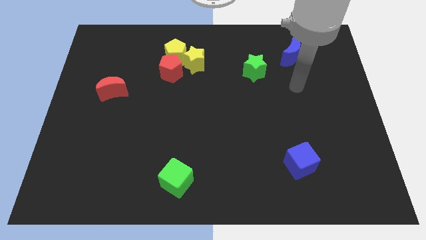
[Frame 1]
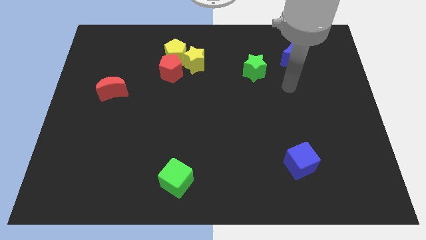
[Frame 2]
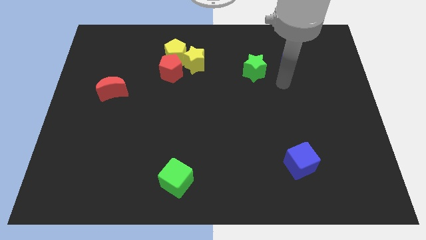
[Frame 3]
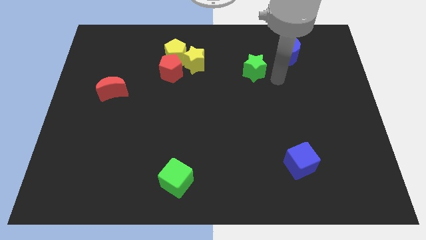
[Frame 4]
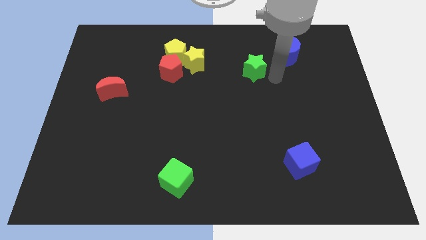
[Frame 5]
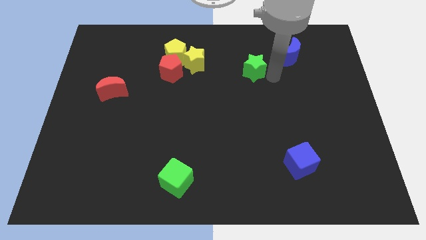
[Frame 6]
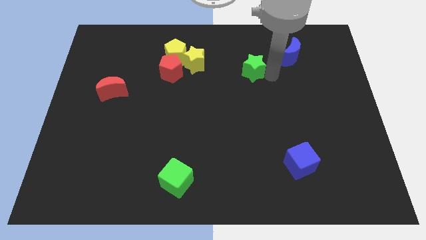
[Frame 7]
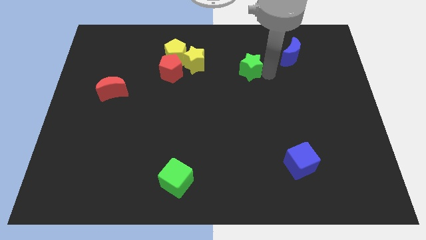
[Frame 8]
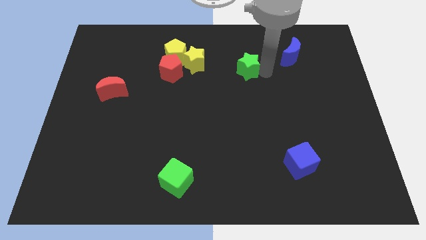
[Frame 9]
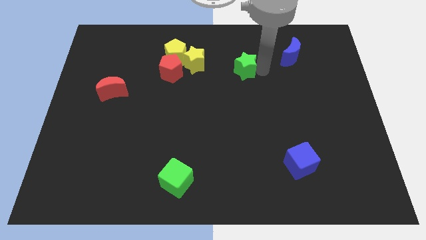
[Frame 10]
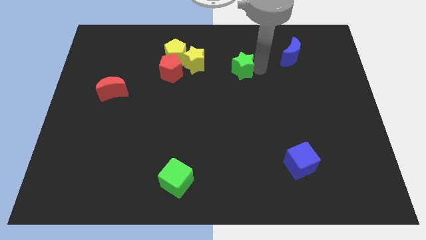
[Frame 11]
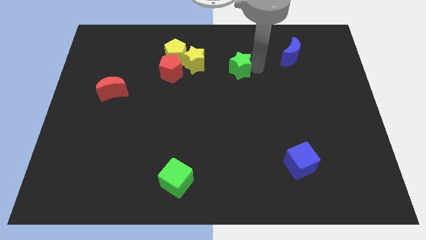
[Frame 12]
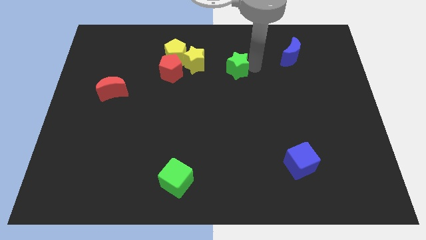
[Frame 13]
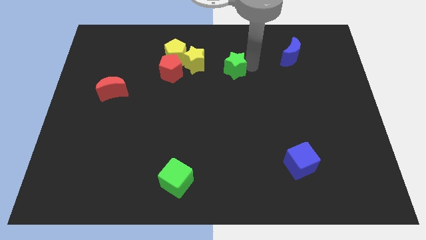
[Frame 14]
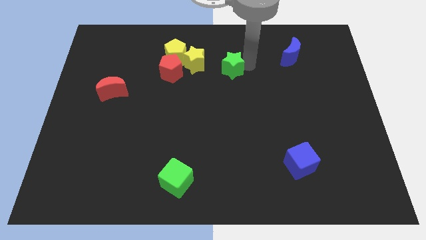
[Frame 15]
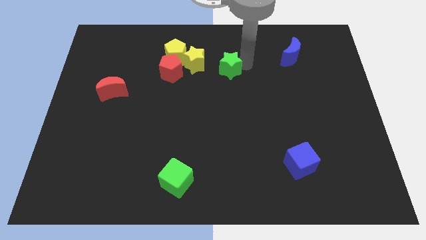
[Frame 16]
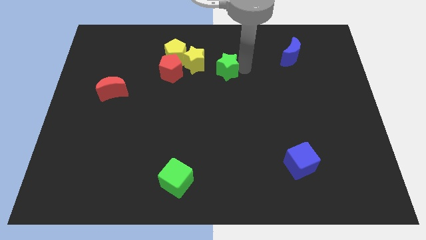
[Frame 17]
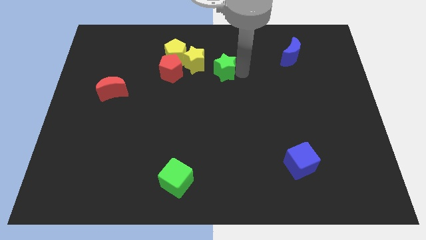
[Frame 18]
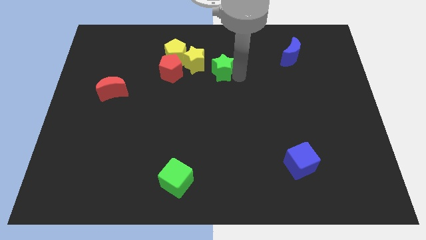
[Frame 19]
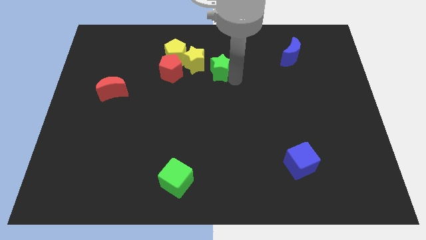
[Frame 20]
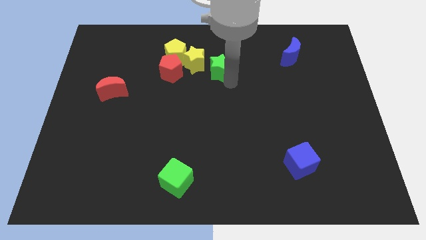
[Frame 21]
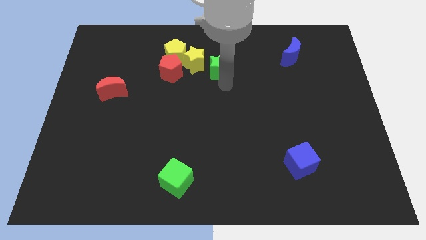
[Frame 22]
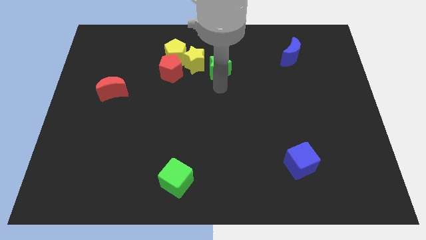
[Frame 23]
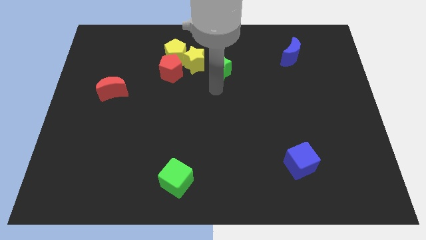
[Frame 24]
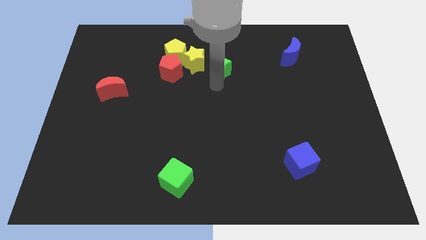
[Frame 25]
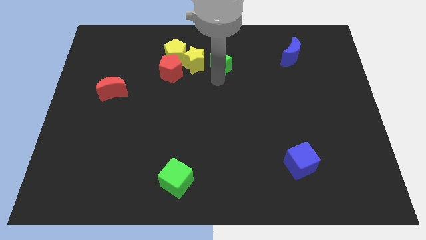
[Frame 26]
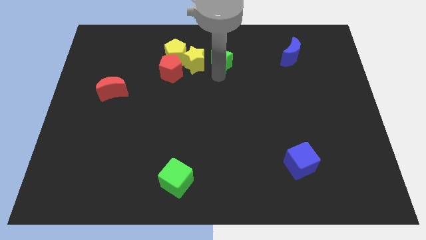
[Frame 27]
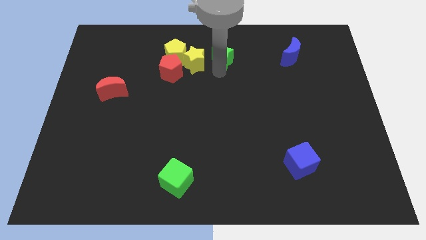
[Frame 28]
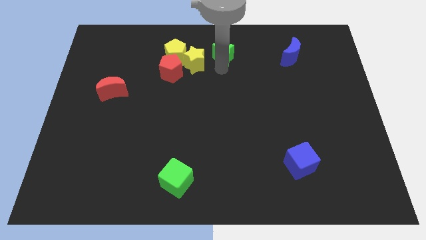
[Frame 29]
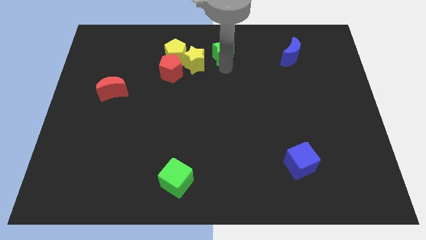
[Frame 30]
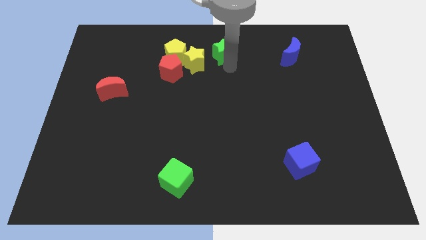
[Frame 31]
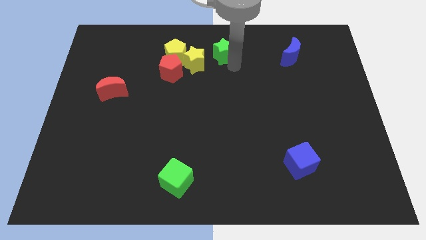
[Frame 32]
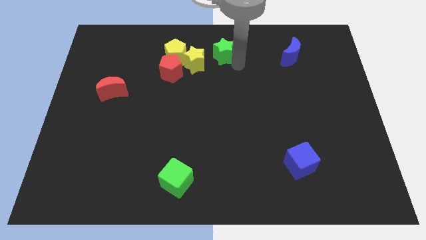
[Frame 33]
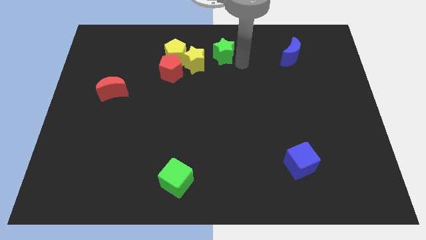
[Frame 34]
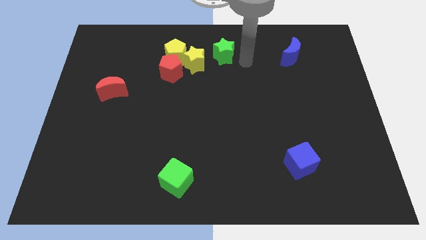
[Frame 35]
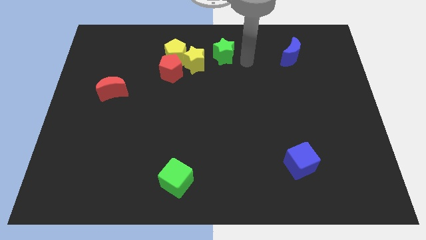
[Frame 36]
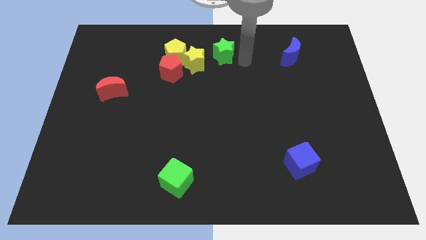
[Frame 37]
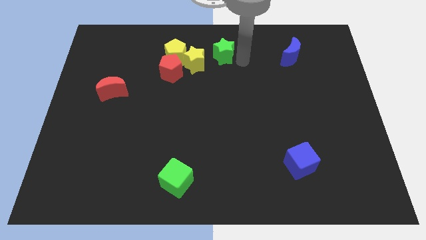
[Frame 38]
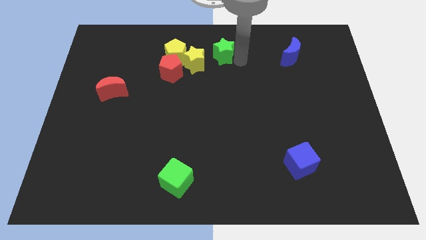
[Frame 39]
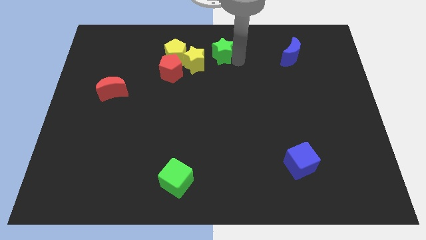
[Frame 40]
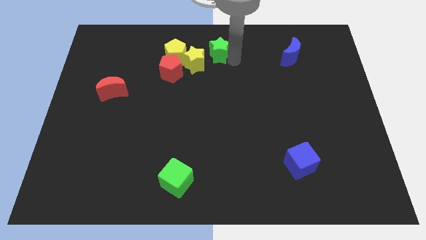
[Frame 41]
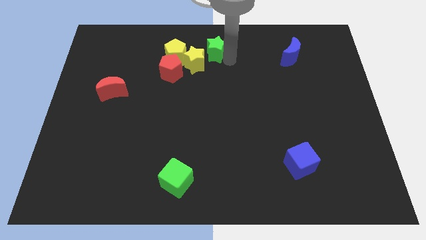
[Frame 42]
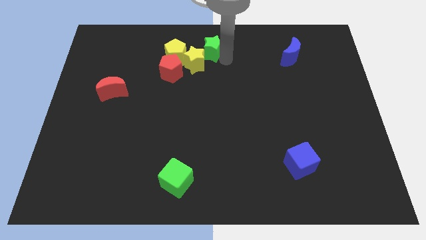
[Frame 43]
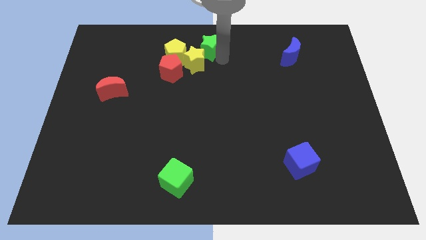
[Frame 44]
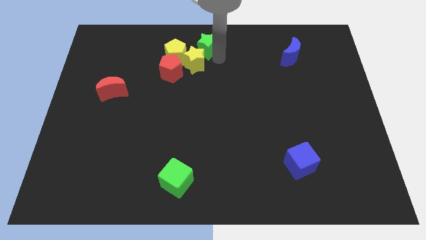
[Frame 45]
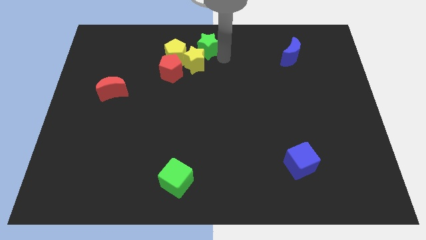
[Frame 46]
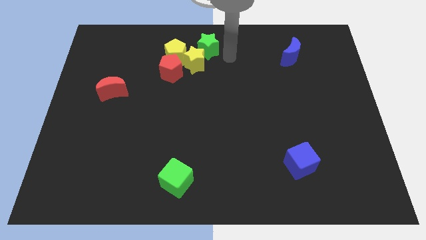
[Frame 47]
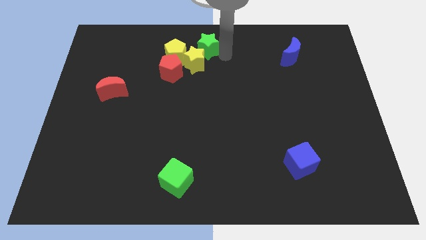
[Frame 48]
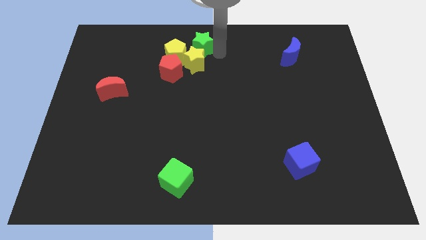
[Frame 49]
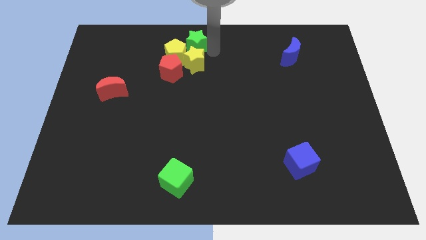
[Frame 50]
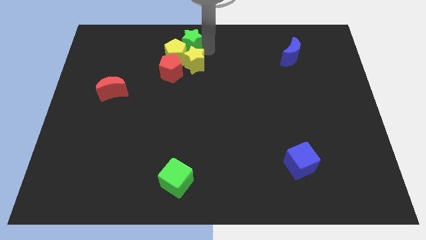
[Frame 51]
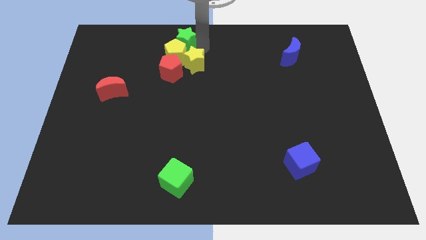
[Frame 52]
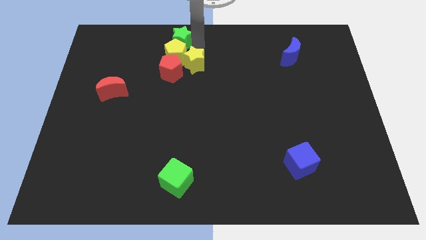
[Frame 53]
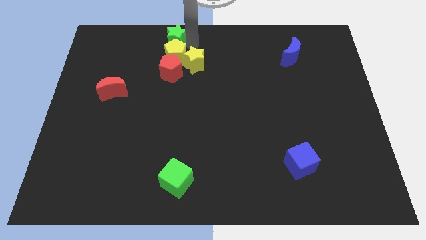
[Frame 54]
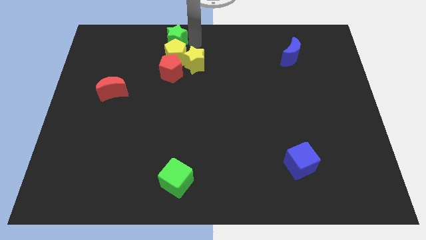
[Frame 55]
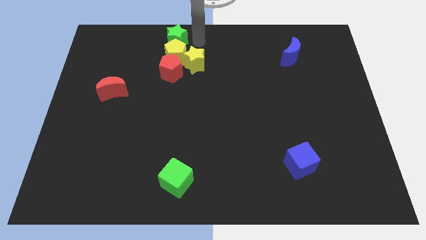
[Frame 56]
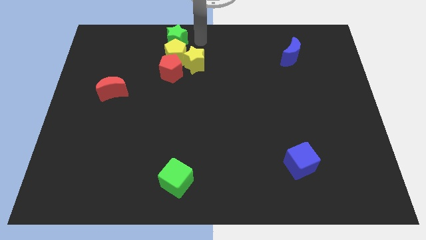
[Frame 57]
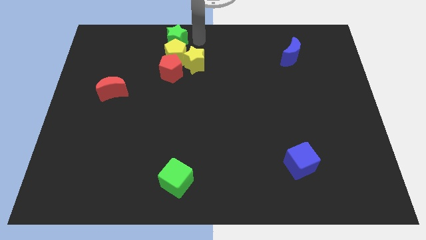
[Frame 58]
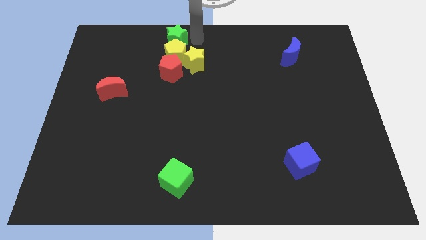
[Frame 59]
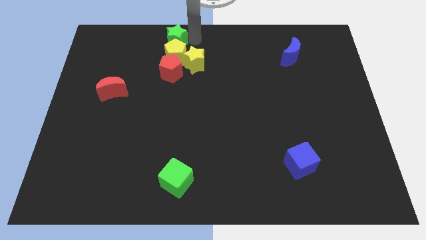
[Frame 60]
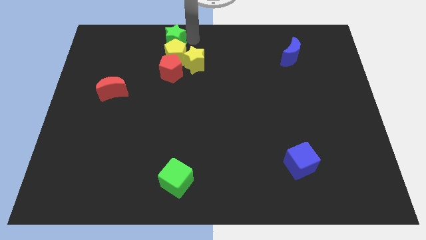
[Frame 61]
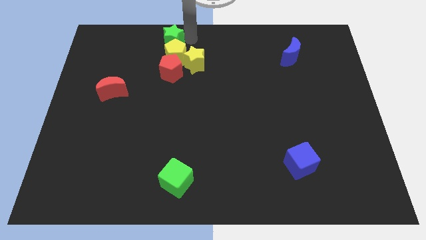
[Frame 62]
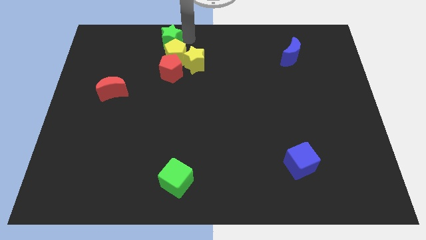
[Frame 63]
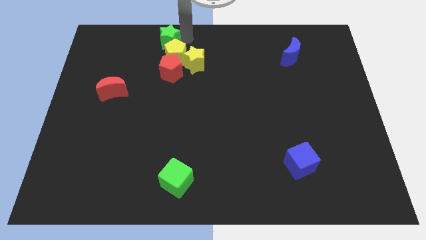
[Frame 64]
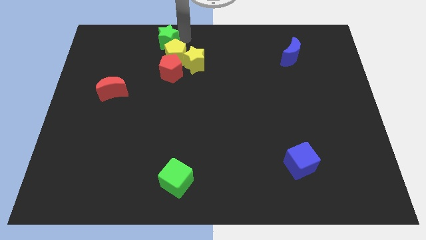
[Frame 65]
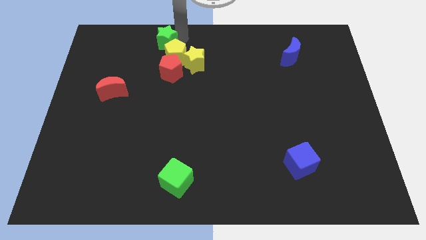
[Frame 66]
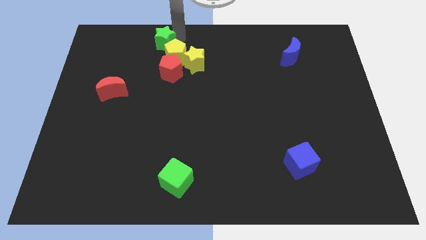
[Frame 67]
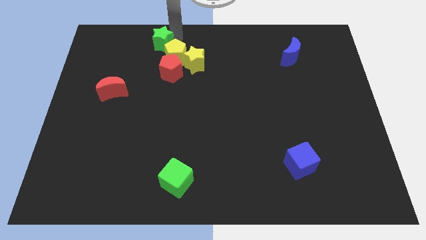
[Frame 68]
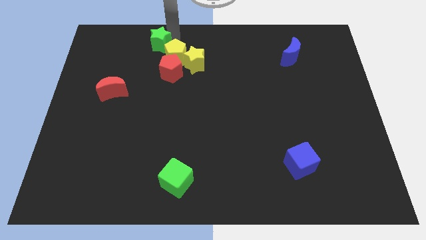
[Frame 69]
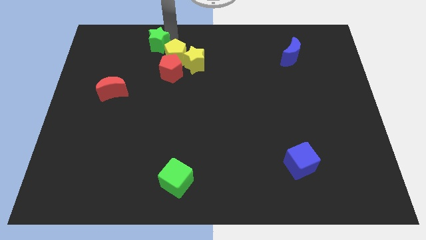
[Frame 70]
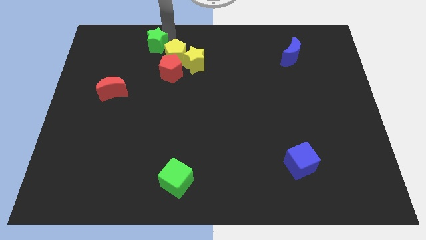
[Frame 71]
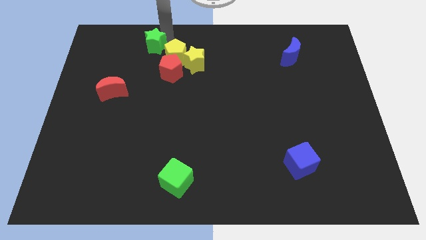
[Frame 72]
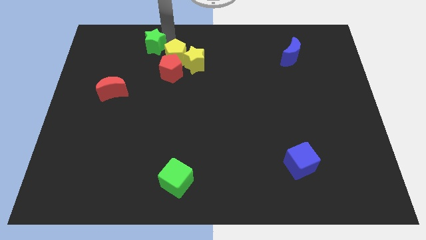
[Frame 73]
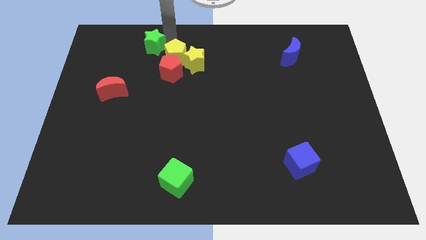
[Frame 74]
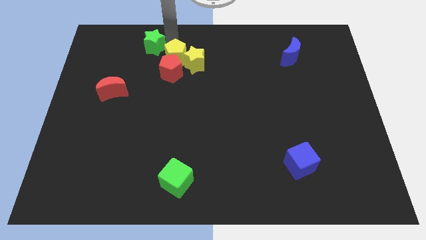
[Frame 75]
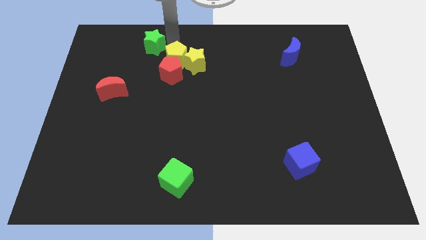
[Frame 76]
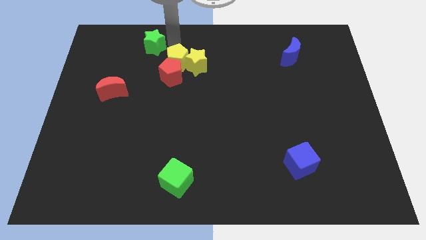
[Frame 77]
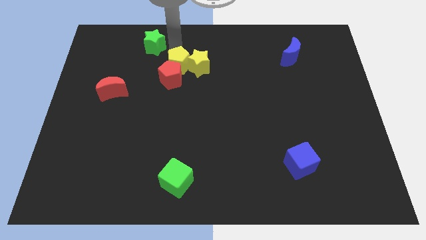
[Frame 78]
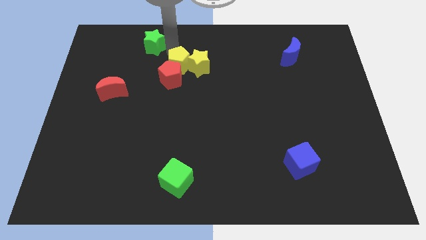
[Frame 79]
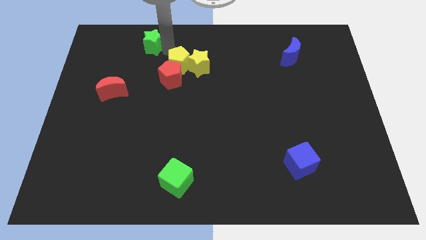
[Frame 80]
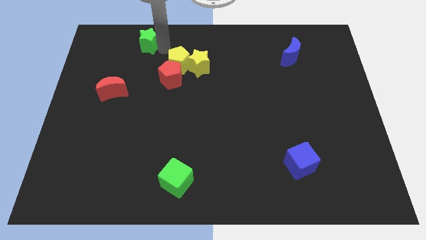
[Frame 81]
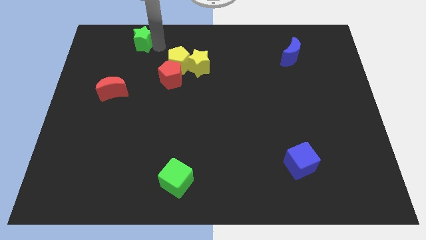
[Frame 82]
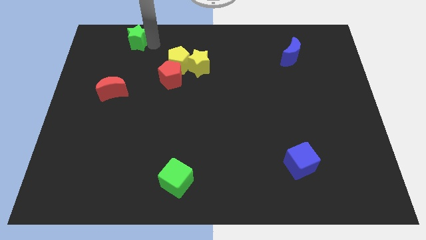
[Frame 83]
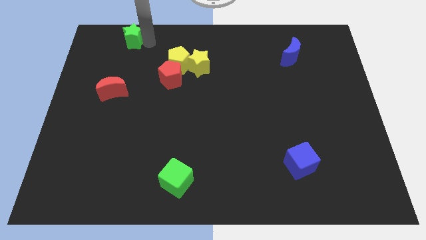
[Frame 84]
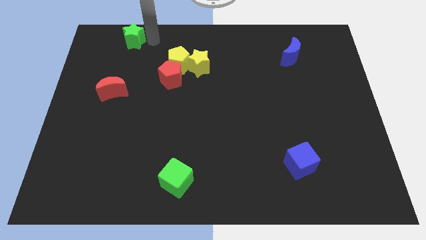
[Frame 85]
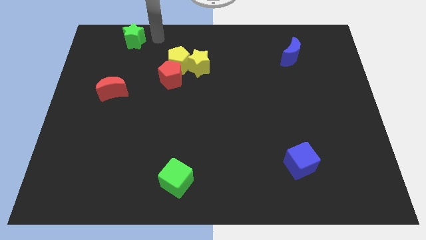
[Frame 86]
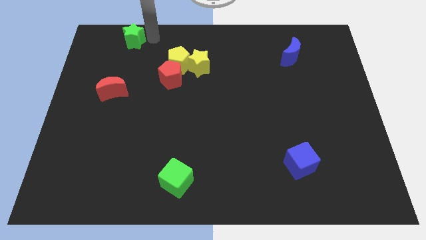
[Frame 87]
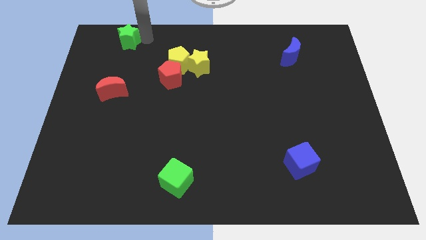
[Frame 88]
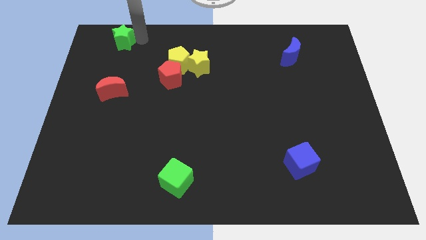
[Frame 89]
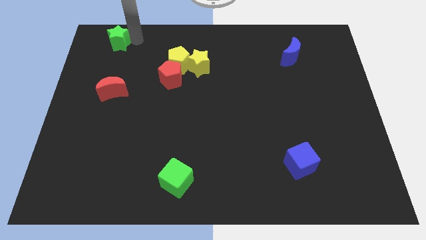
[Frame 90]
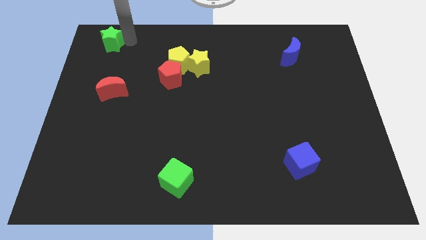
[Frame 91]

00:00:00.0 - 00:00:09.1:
move the green star to the upper left corner
